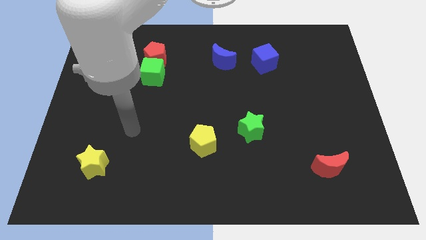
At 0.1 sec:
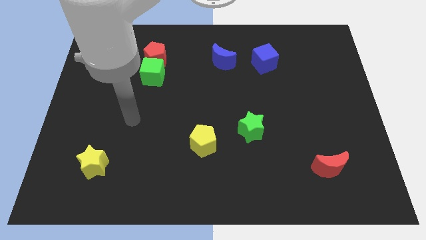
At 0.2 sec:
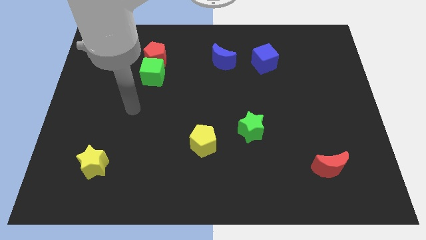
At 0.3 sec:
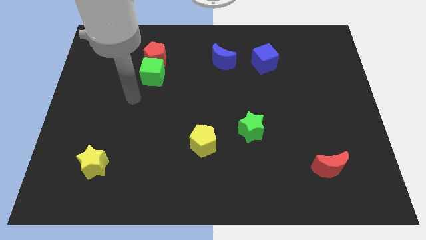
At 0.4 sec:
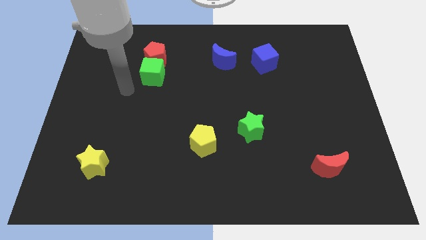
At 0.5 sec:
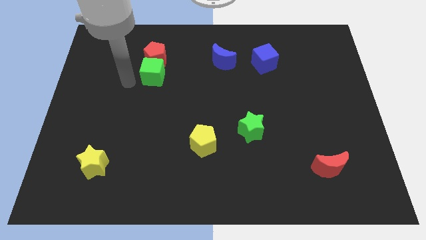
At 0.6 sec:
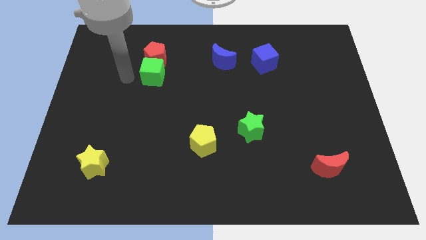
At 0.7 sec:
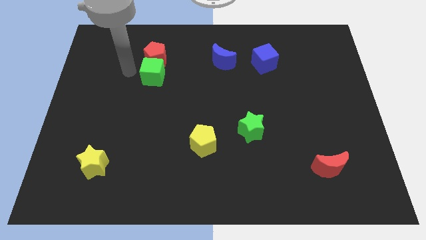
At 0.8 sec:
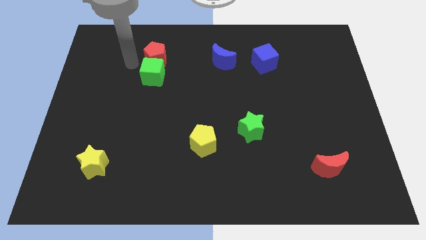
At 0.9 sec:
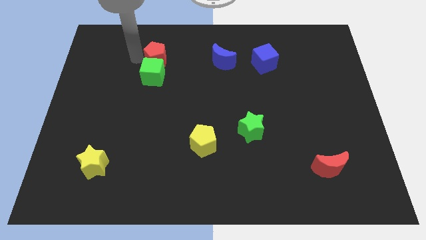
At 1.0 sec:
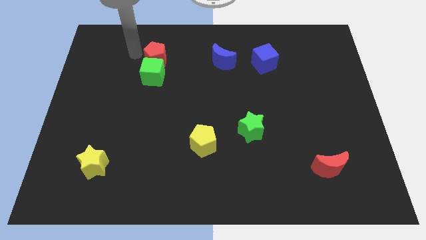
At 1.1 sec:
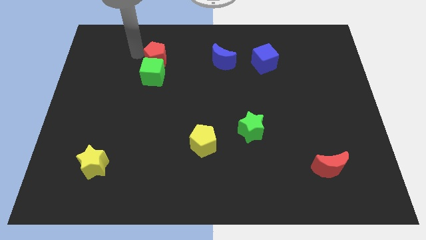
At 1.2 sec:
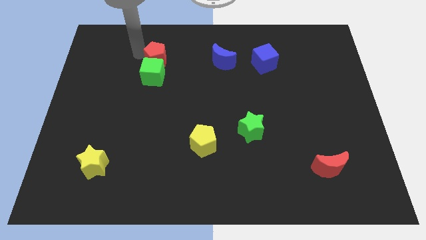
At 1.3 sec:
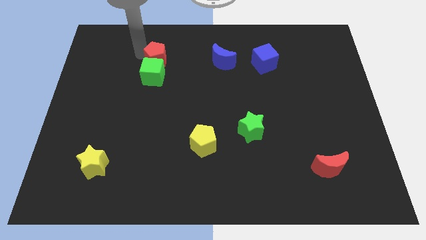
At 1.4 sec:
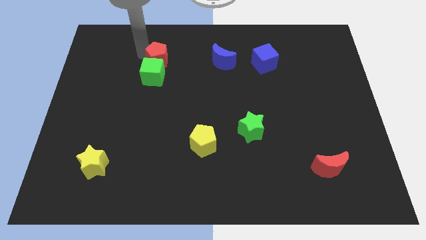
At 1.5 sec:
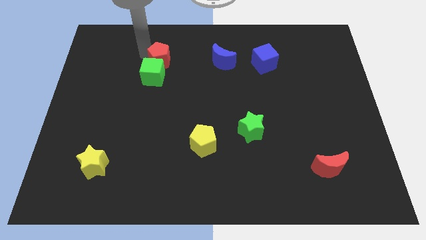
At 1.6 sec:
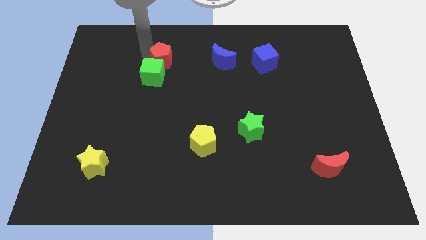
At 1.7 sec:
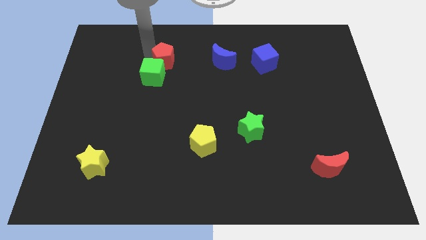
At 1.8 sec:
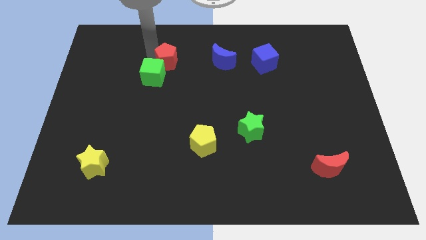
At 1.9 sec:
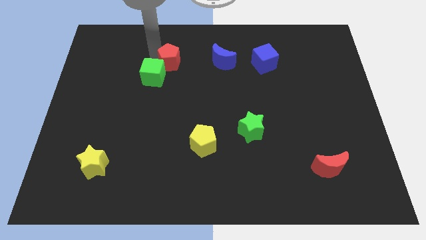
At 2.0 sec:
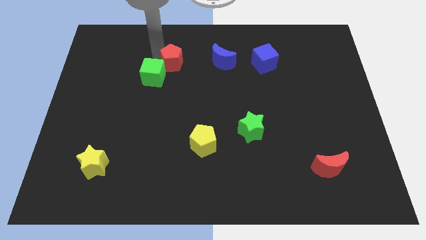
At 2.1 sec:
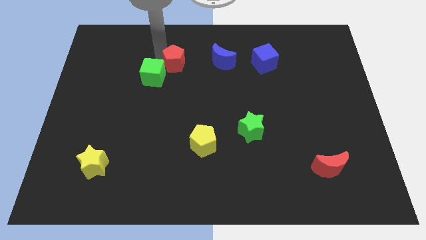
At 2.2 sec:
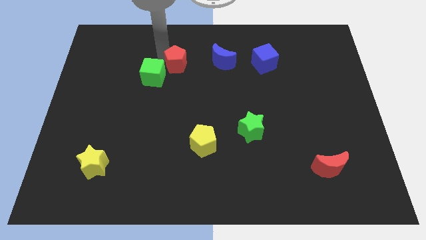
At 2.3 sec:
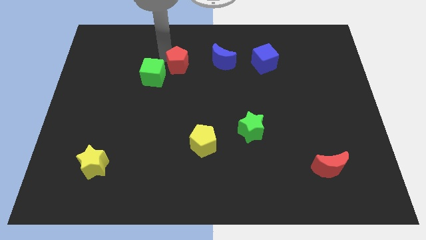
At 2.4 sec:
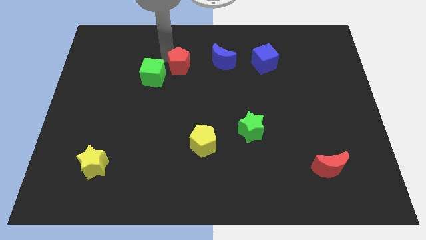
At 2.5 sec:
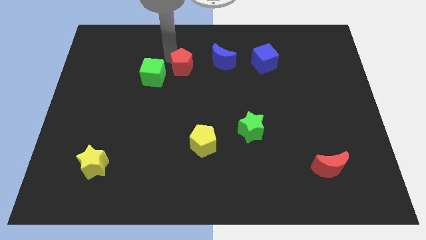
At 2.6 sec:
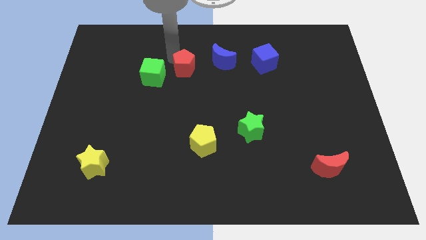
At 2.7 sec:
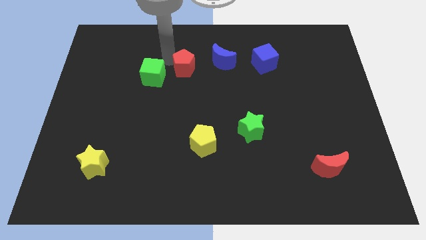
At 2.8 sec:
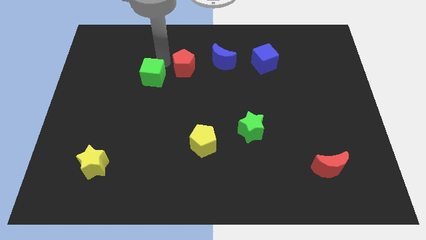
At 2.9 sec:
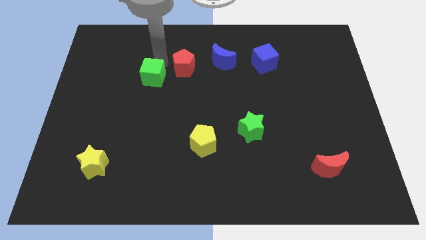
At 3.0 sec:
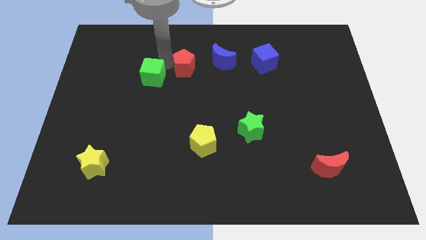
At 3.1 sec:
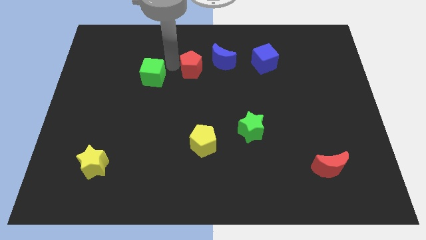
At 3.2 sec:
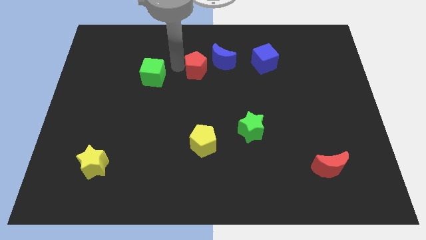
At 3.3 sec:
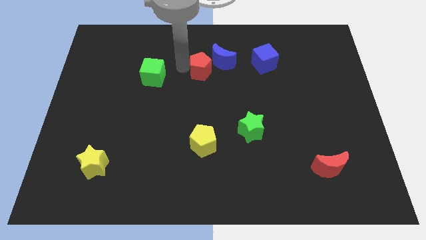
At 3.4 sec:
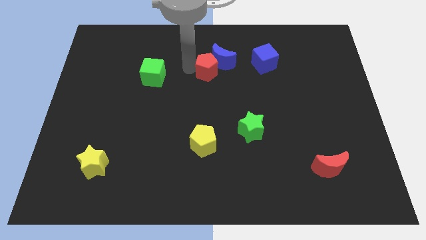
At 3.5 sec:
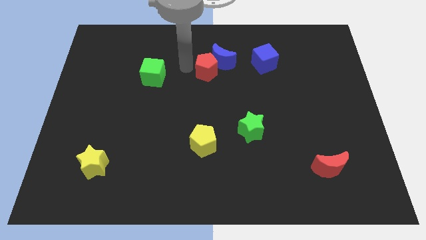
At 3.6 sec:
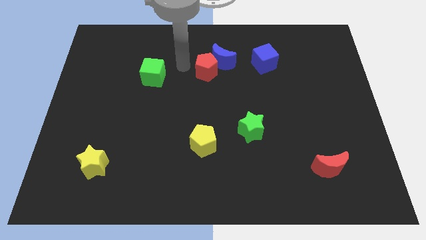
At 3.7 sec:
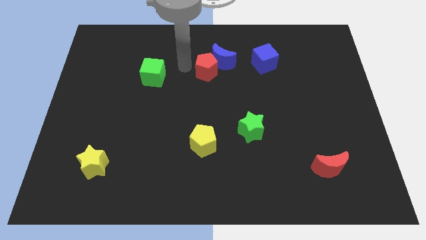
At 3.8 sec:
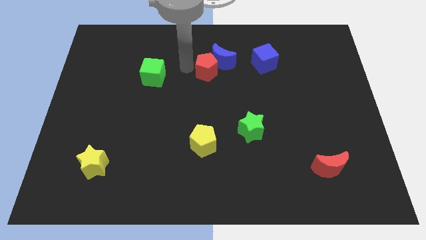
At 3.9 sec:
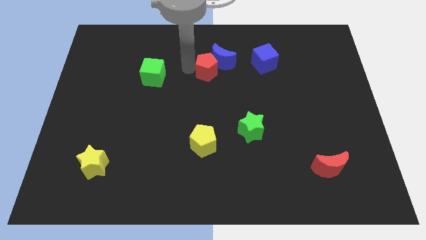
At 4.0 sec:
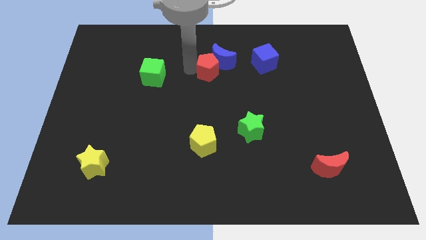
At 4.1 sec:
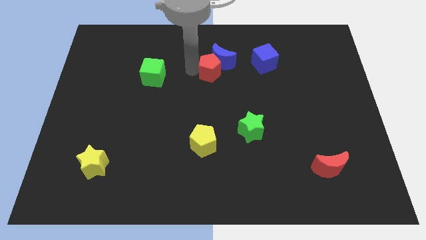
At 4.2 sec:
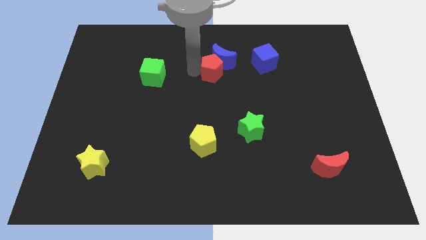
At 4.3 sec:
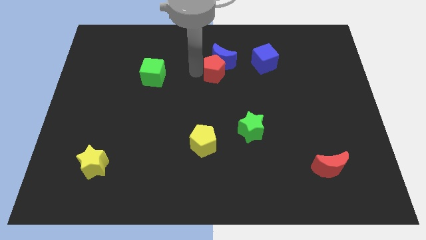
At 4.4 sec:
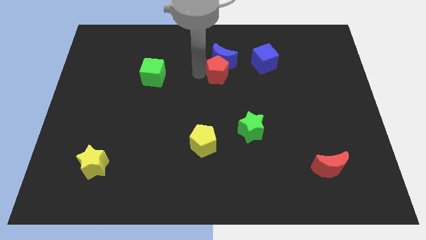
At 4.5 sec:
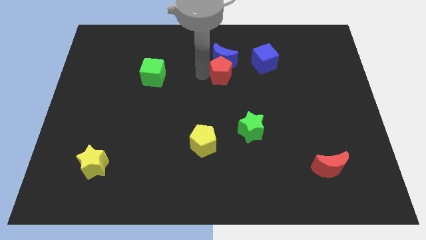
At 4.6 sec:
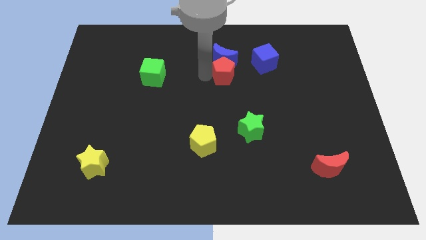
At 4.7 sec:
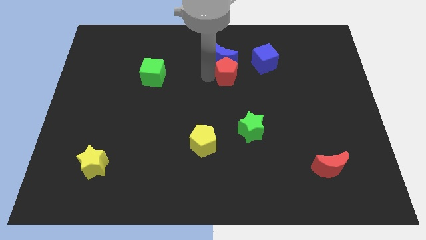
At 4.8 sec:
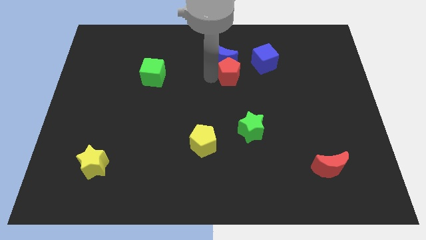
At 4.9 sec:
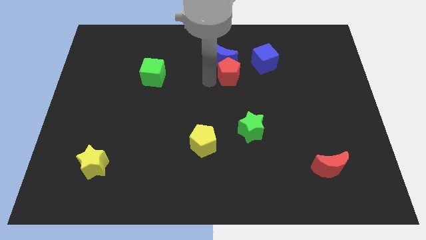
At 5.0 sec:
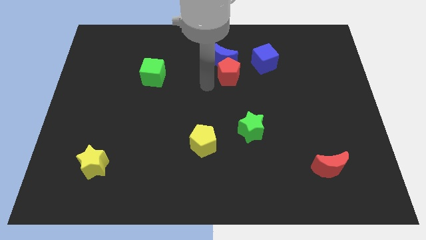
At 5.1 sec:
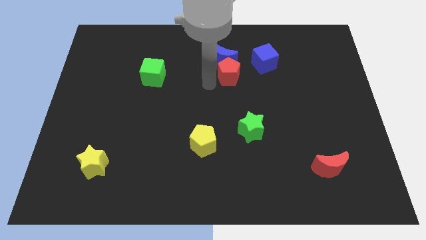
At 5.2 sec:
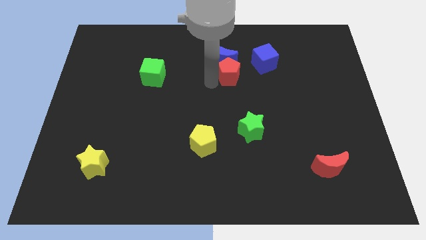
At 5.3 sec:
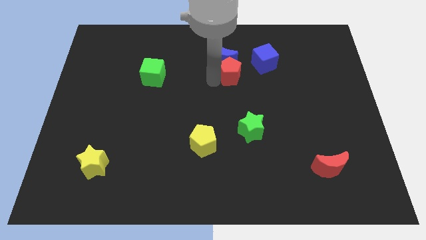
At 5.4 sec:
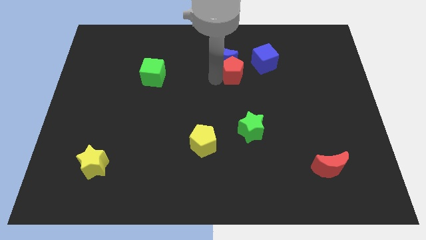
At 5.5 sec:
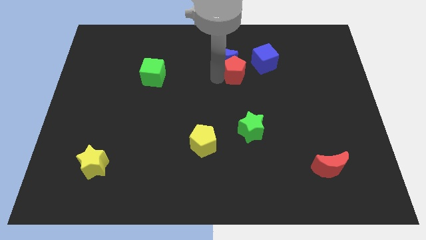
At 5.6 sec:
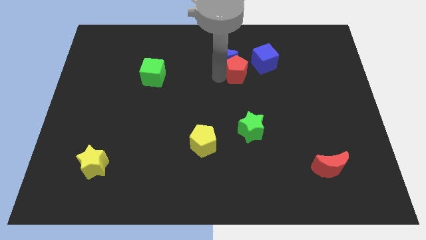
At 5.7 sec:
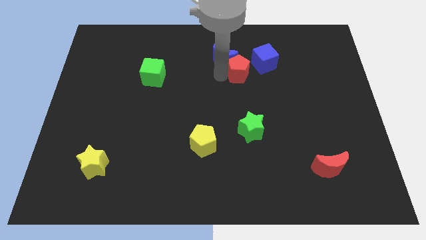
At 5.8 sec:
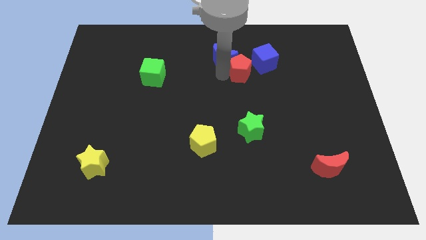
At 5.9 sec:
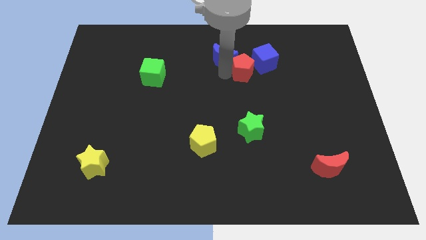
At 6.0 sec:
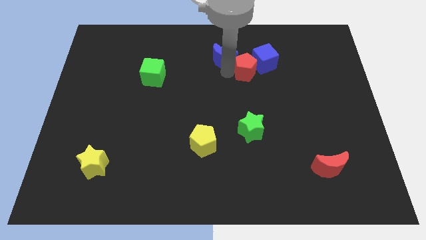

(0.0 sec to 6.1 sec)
move the red pentagon towards the blue cube

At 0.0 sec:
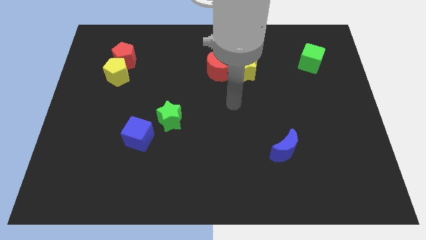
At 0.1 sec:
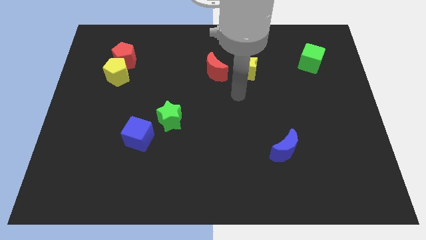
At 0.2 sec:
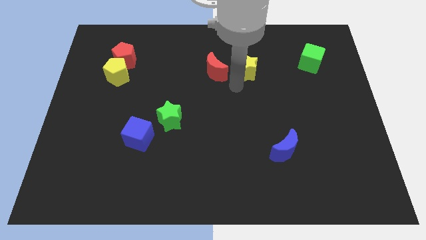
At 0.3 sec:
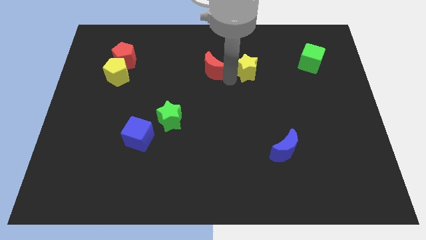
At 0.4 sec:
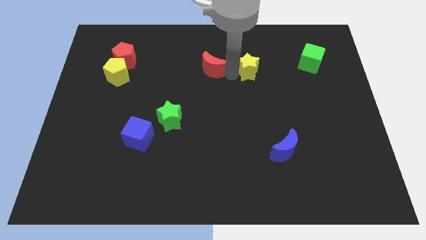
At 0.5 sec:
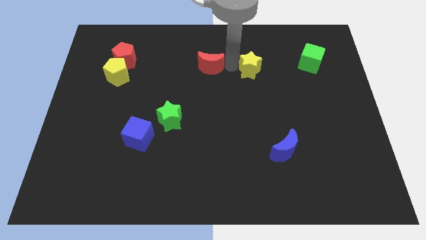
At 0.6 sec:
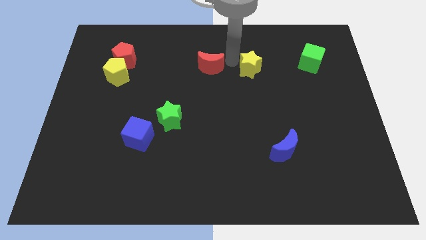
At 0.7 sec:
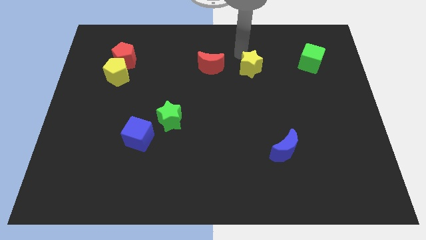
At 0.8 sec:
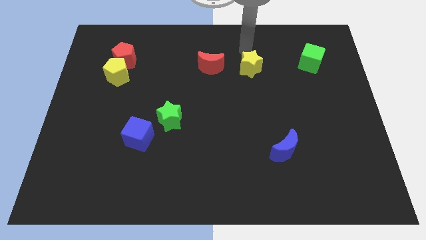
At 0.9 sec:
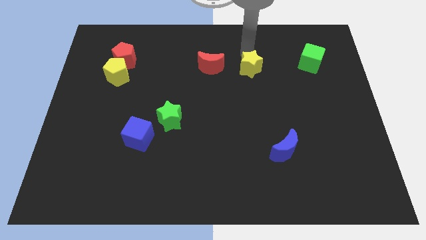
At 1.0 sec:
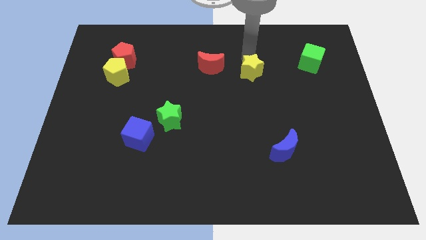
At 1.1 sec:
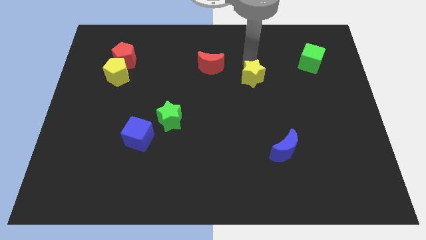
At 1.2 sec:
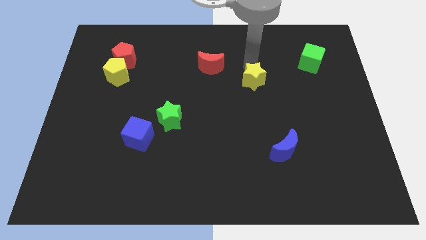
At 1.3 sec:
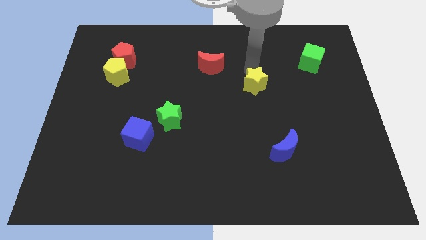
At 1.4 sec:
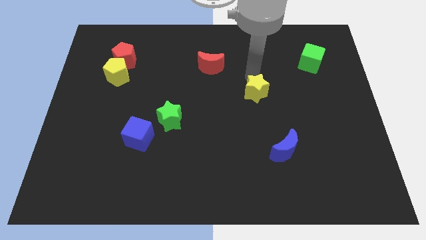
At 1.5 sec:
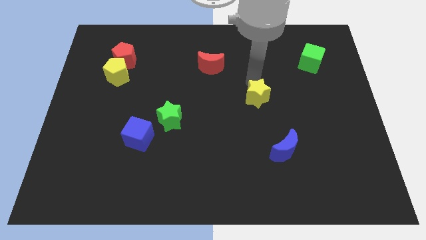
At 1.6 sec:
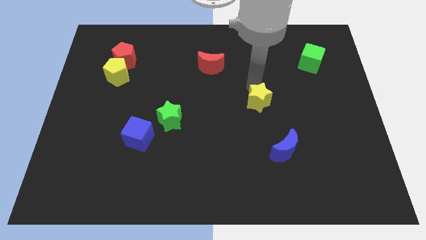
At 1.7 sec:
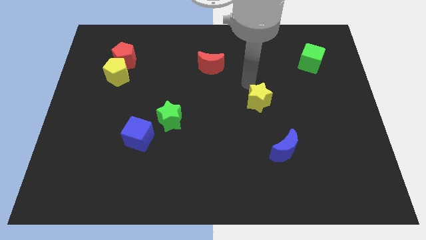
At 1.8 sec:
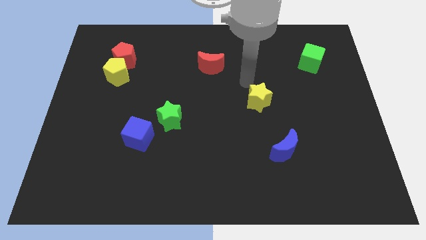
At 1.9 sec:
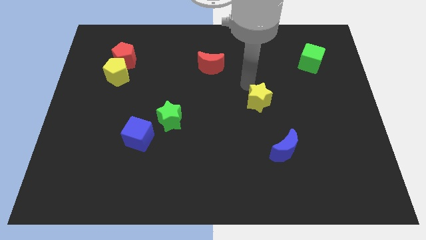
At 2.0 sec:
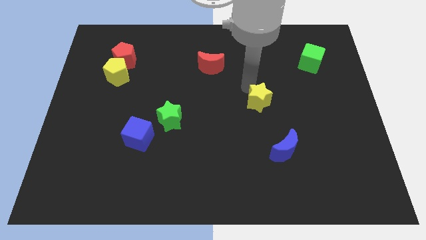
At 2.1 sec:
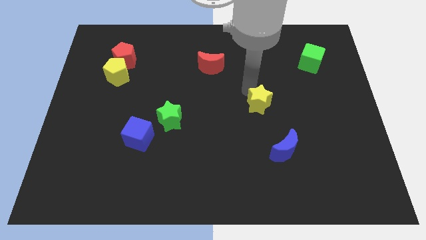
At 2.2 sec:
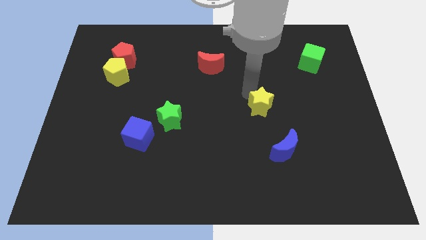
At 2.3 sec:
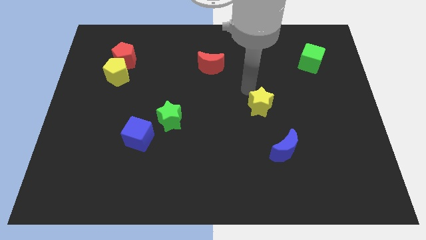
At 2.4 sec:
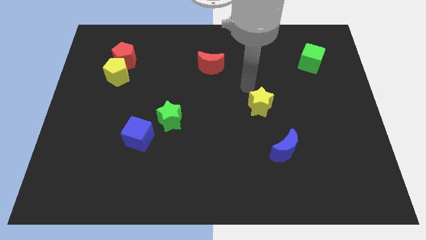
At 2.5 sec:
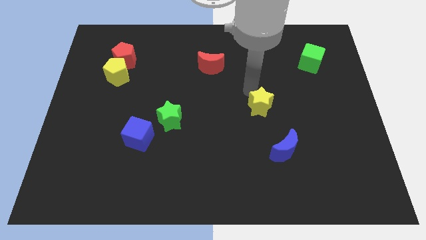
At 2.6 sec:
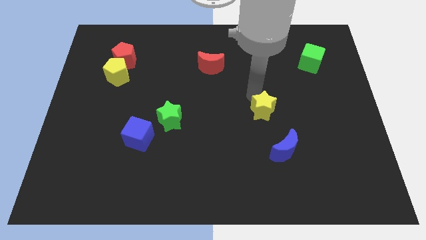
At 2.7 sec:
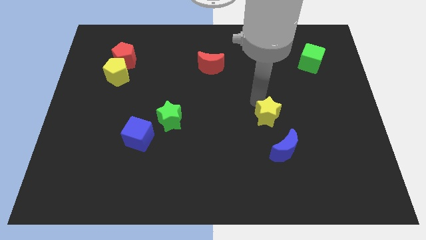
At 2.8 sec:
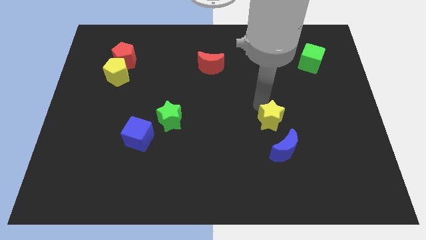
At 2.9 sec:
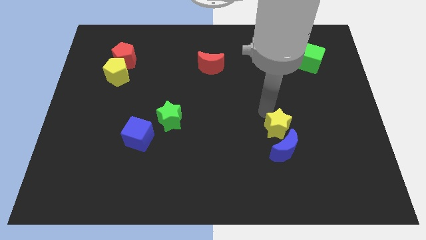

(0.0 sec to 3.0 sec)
move the yellow star to the blue moon
